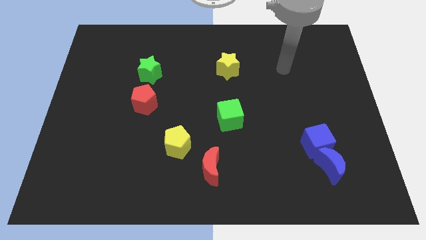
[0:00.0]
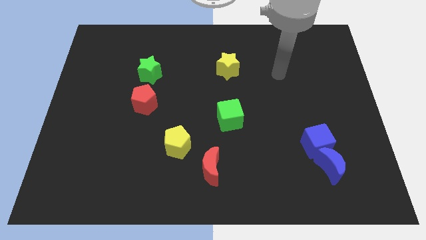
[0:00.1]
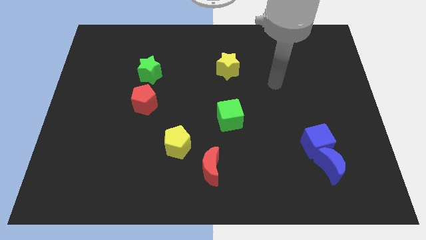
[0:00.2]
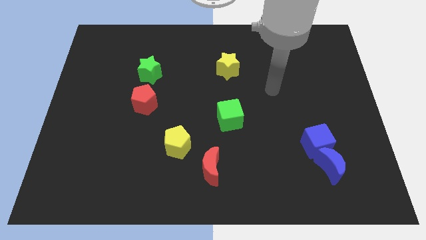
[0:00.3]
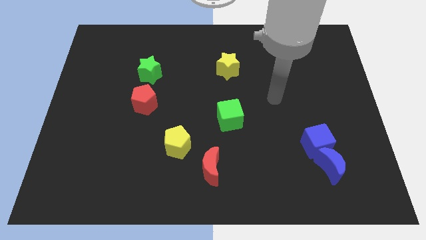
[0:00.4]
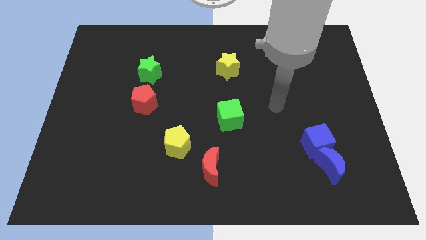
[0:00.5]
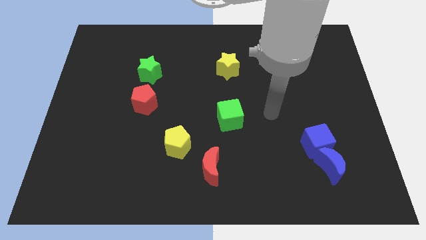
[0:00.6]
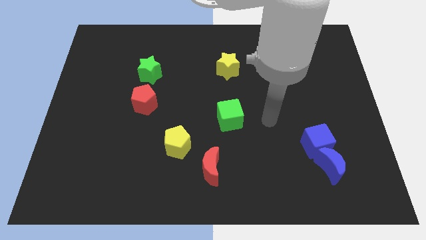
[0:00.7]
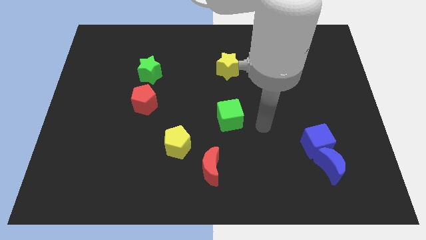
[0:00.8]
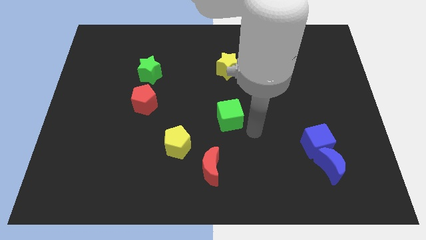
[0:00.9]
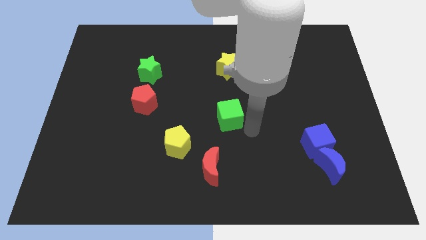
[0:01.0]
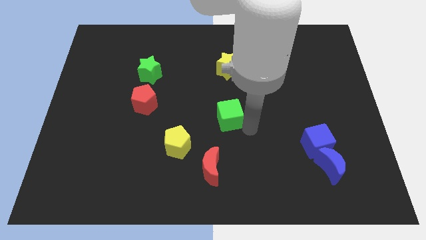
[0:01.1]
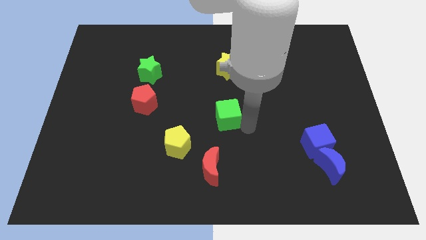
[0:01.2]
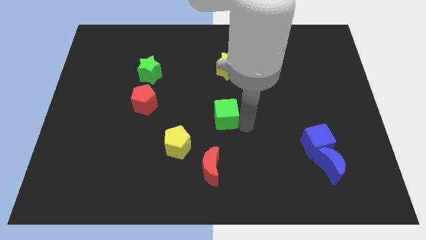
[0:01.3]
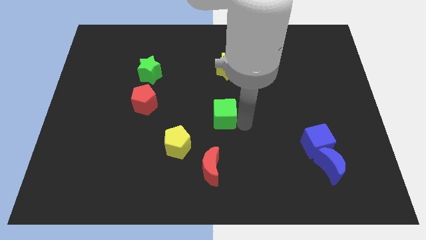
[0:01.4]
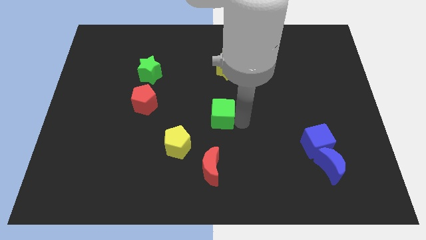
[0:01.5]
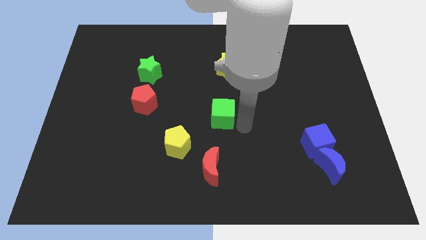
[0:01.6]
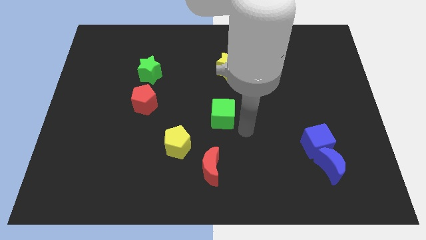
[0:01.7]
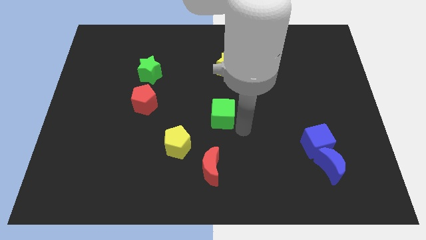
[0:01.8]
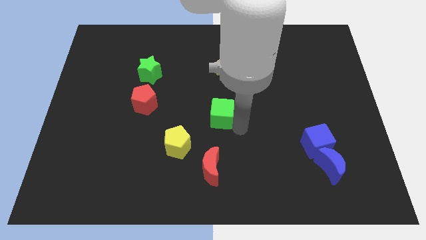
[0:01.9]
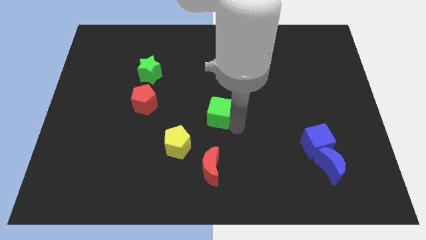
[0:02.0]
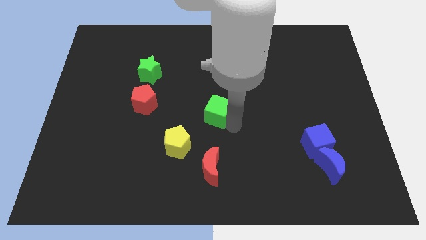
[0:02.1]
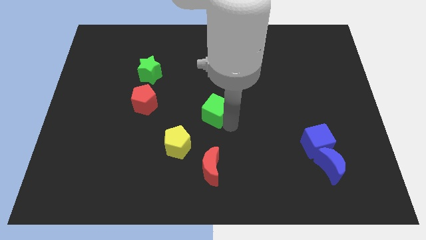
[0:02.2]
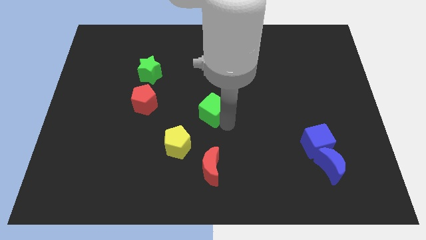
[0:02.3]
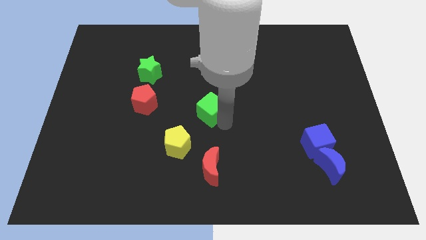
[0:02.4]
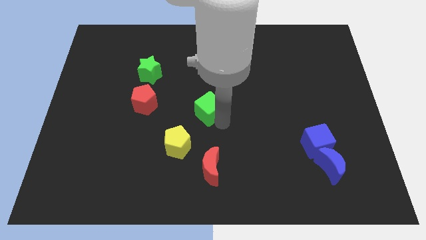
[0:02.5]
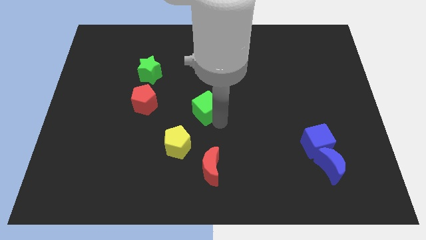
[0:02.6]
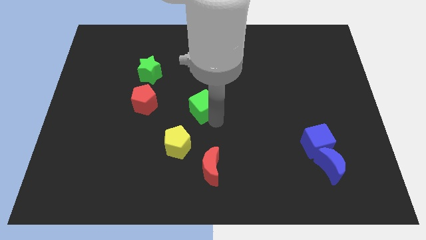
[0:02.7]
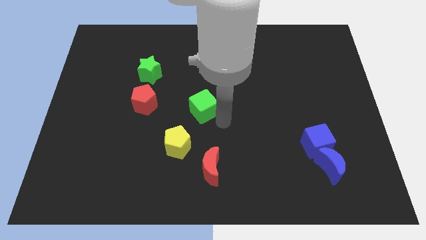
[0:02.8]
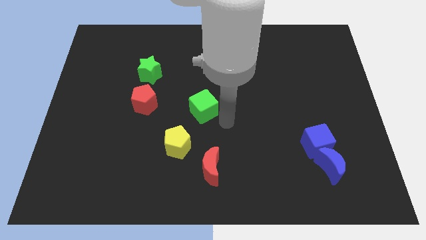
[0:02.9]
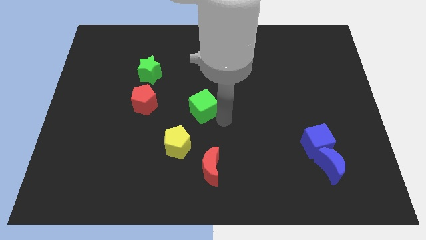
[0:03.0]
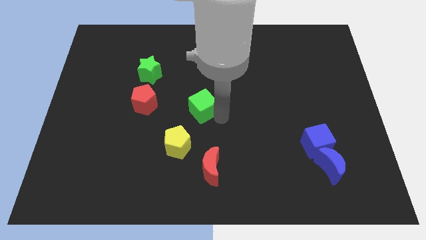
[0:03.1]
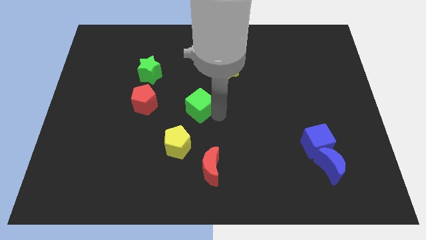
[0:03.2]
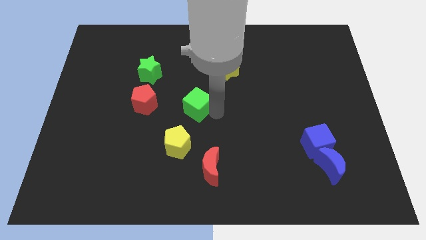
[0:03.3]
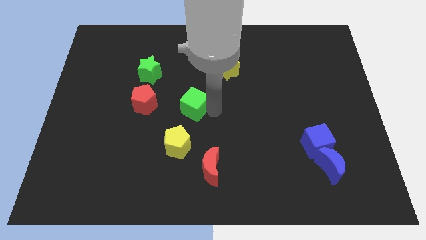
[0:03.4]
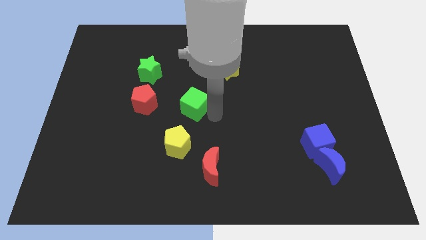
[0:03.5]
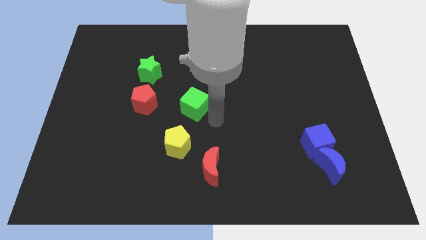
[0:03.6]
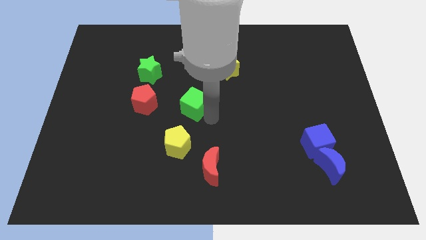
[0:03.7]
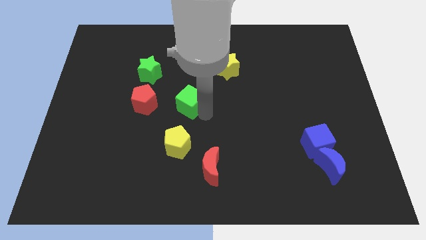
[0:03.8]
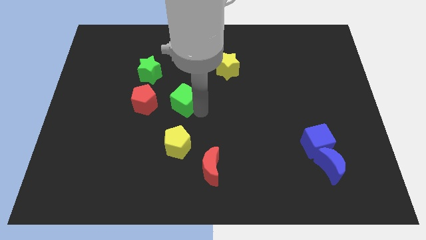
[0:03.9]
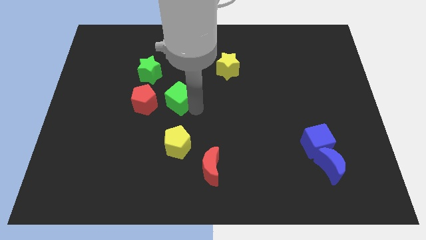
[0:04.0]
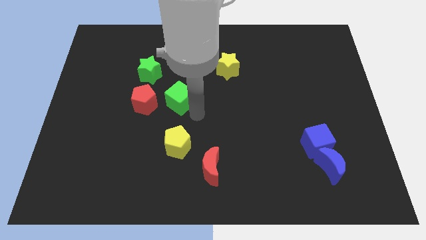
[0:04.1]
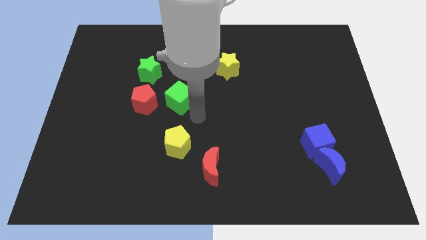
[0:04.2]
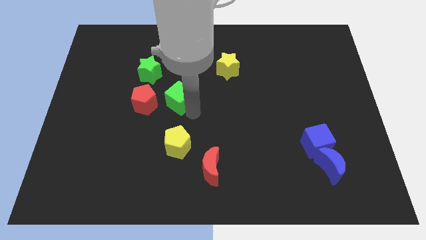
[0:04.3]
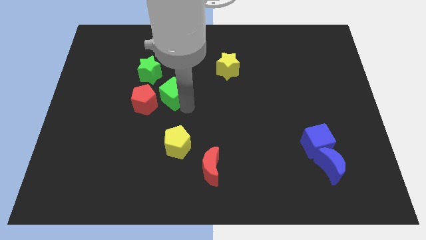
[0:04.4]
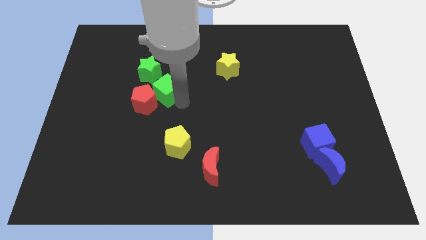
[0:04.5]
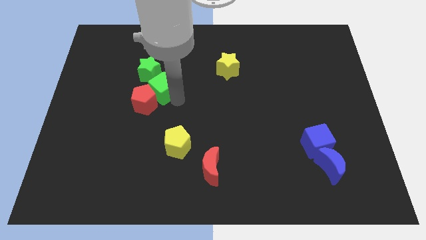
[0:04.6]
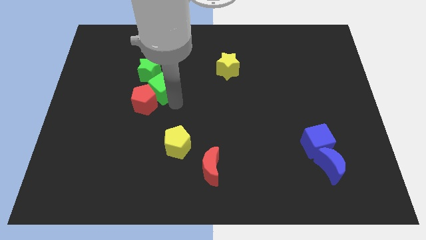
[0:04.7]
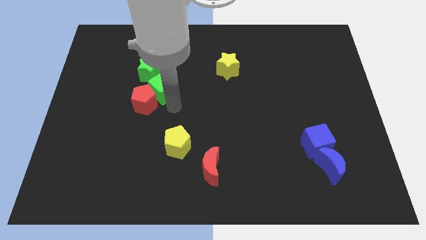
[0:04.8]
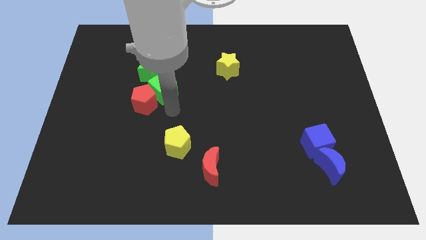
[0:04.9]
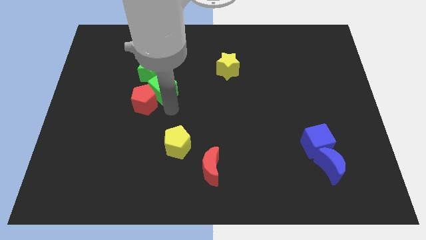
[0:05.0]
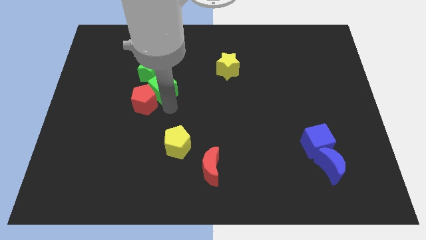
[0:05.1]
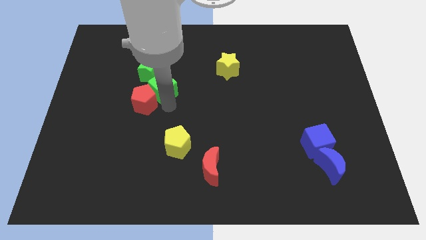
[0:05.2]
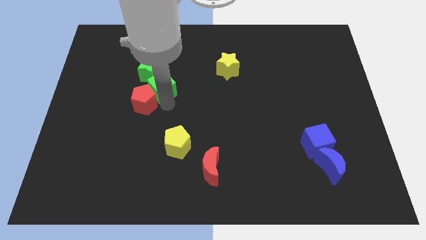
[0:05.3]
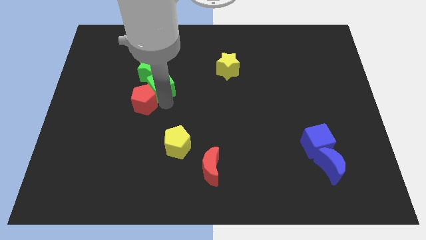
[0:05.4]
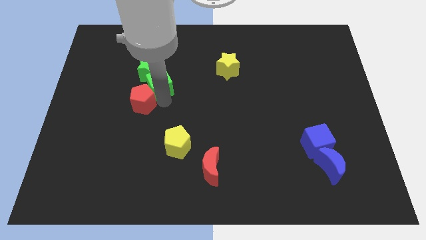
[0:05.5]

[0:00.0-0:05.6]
slide the green cube close to the green star

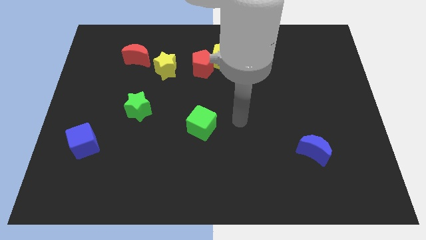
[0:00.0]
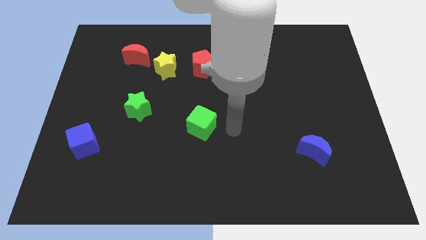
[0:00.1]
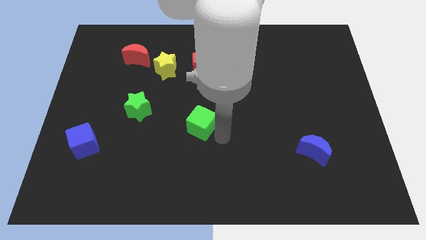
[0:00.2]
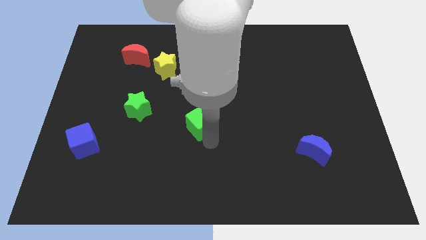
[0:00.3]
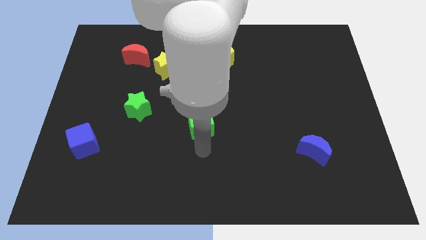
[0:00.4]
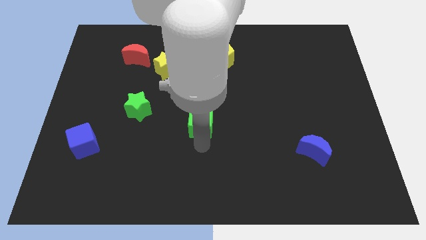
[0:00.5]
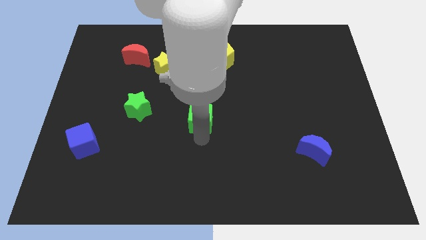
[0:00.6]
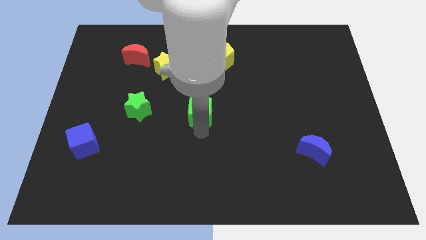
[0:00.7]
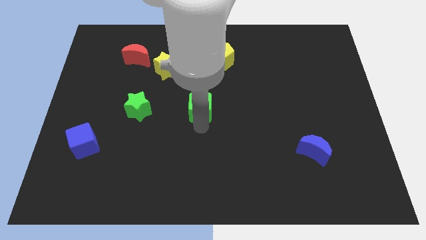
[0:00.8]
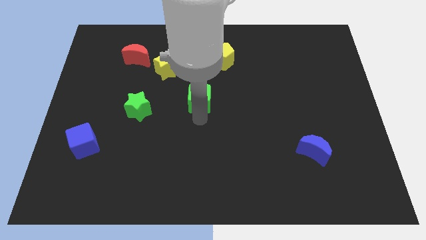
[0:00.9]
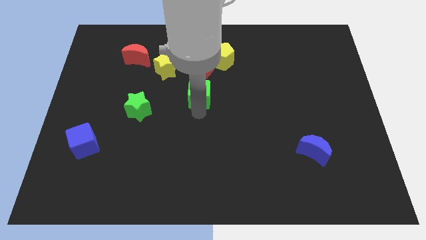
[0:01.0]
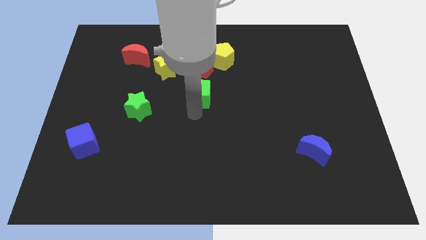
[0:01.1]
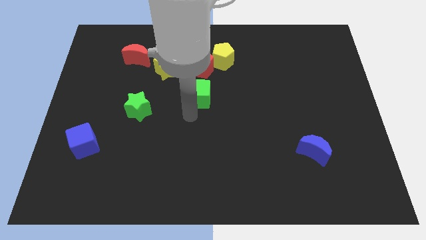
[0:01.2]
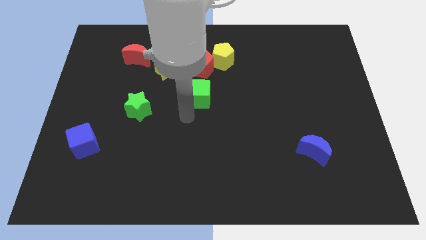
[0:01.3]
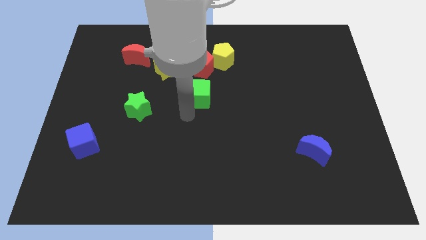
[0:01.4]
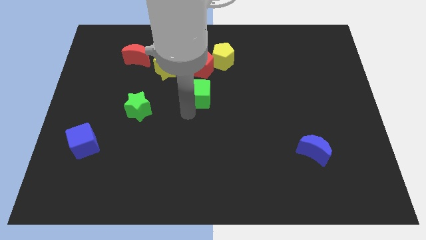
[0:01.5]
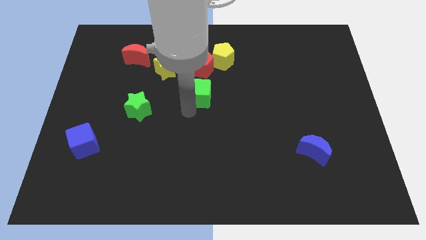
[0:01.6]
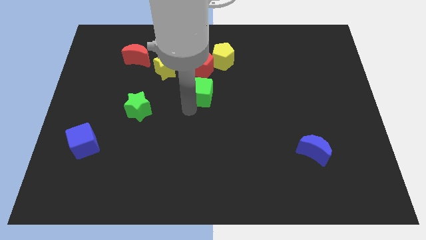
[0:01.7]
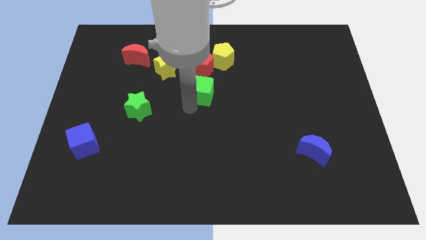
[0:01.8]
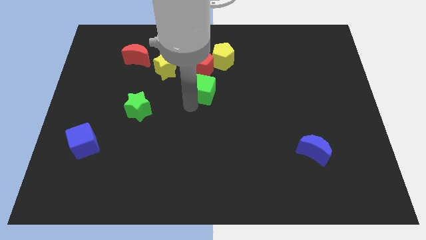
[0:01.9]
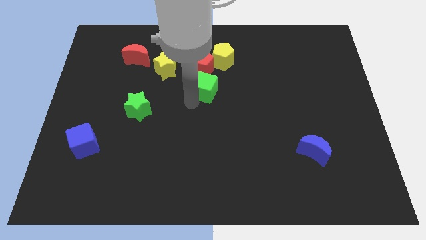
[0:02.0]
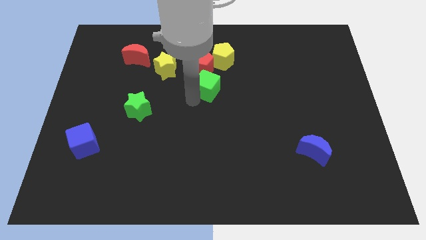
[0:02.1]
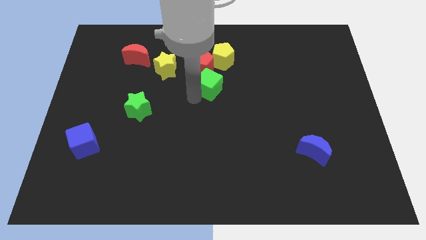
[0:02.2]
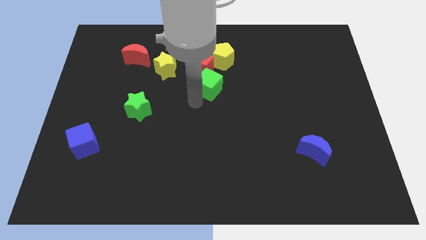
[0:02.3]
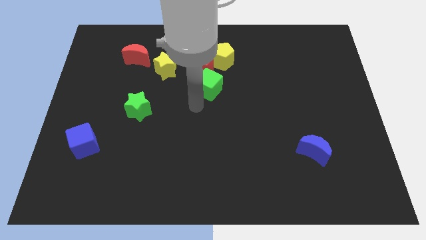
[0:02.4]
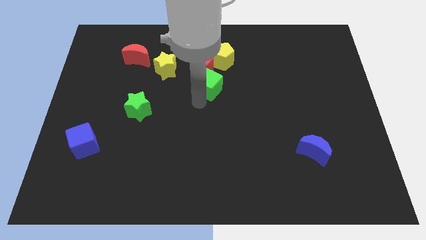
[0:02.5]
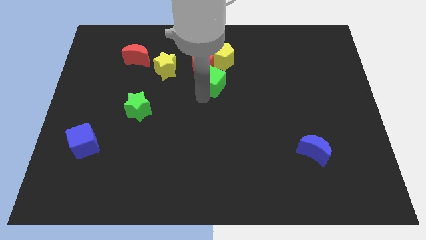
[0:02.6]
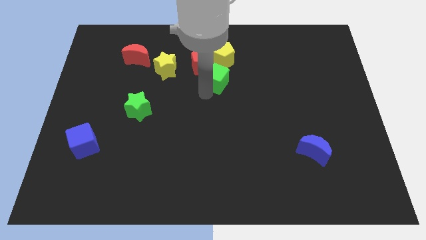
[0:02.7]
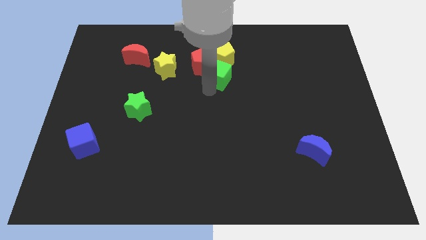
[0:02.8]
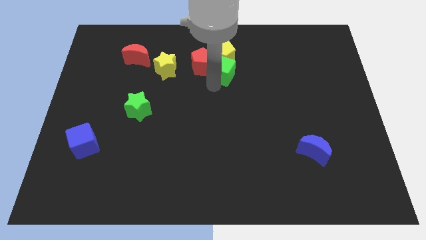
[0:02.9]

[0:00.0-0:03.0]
move the green cube close to the yellow pentagon
